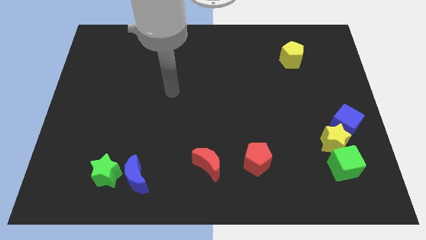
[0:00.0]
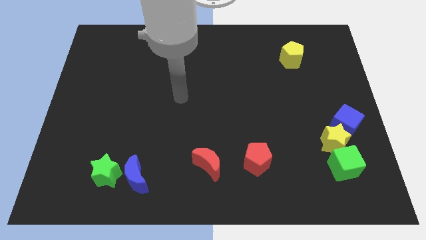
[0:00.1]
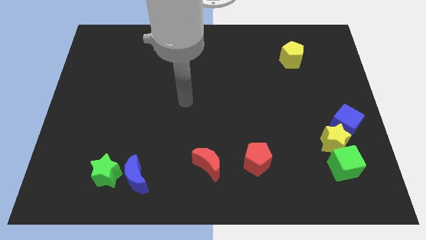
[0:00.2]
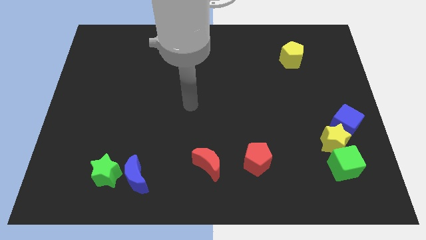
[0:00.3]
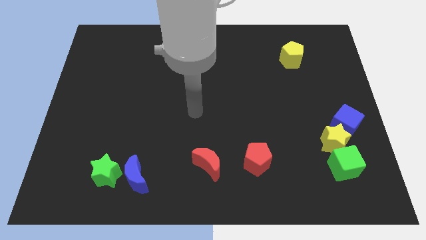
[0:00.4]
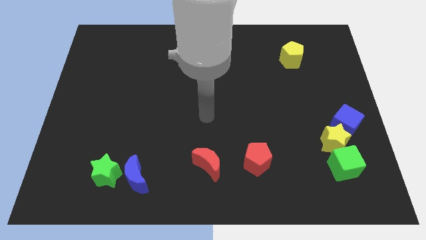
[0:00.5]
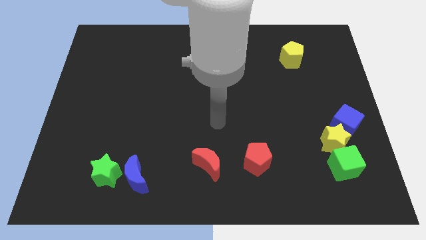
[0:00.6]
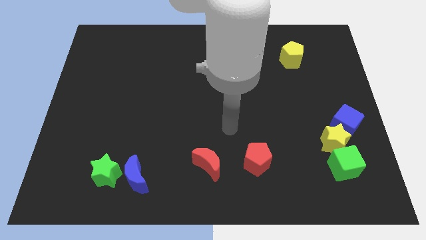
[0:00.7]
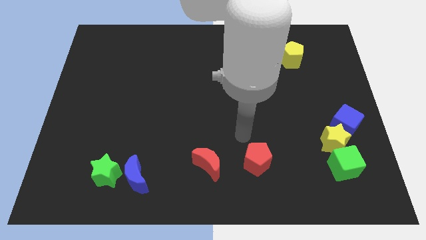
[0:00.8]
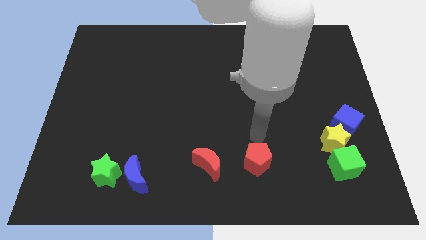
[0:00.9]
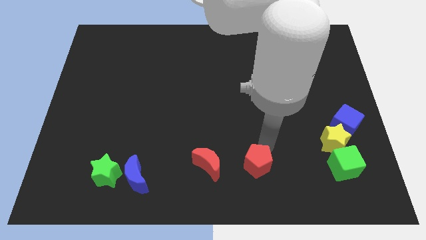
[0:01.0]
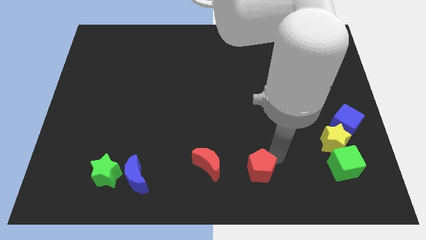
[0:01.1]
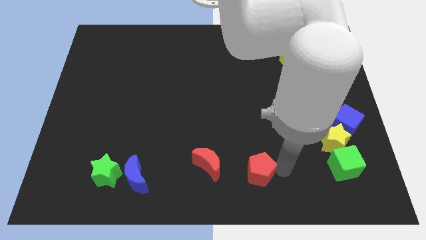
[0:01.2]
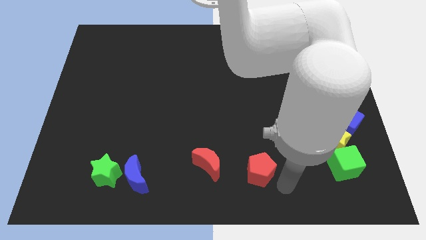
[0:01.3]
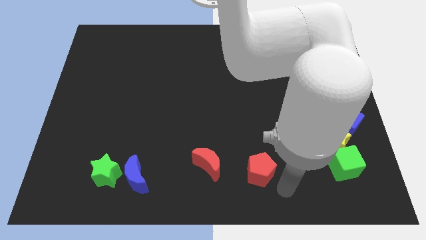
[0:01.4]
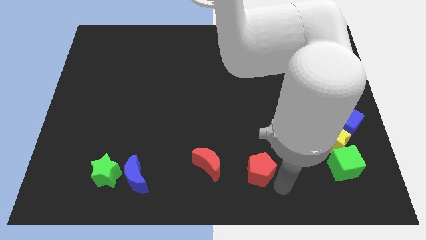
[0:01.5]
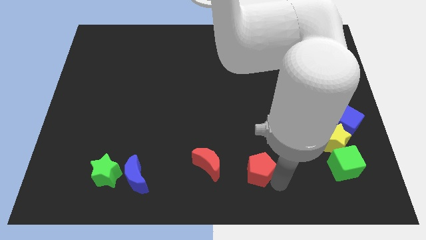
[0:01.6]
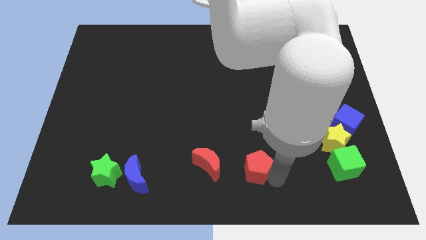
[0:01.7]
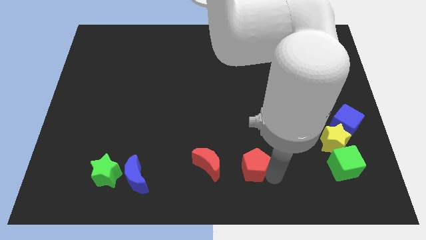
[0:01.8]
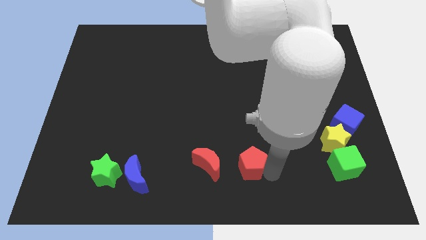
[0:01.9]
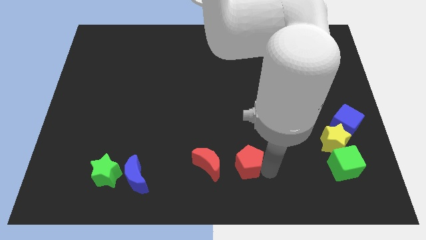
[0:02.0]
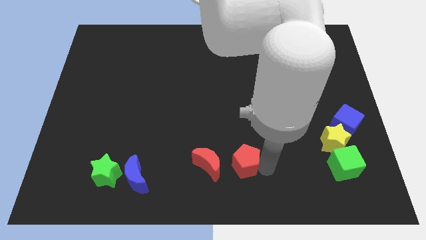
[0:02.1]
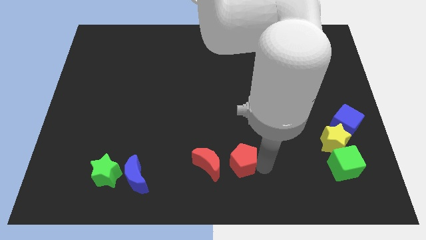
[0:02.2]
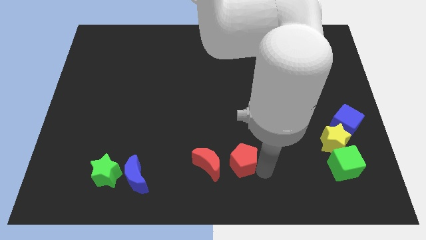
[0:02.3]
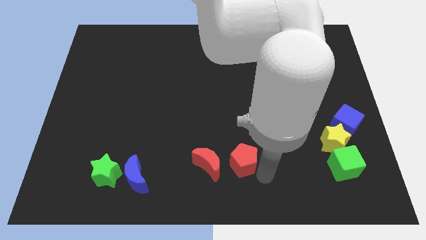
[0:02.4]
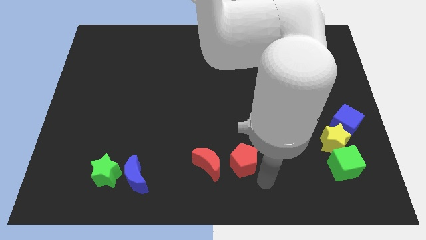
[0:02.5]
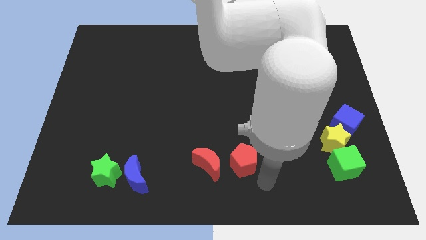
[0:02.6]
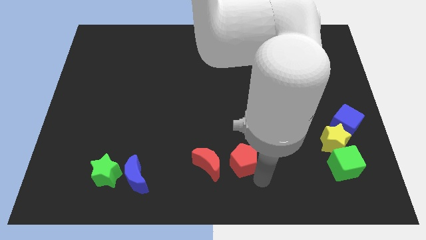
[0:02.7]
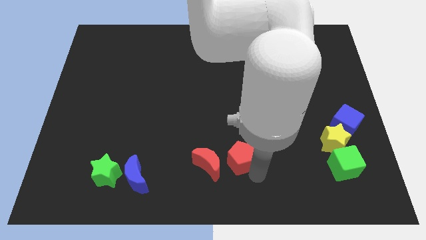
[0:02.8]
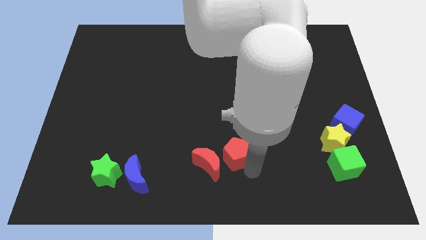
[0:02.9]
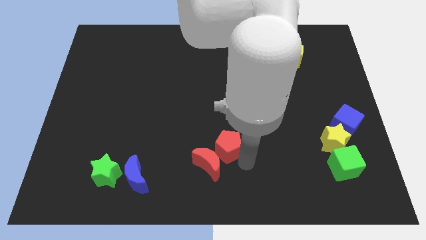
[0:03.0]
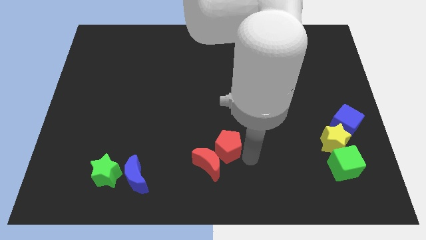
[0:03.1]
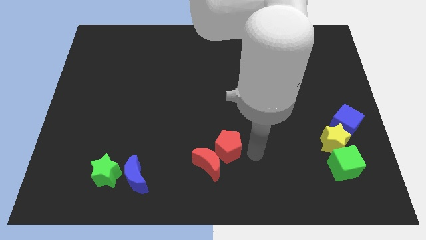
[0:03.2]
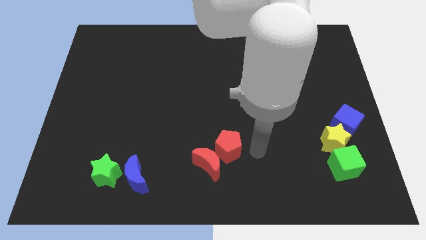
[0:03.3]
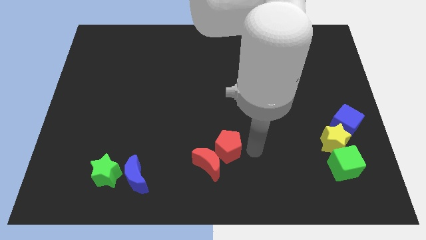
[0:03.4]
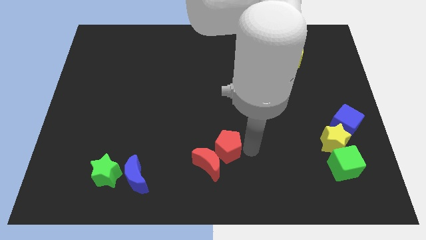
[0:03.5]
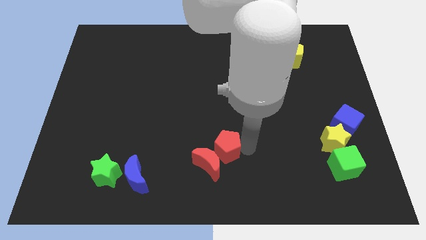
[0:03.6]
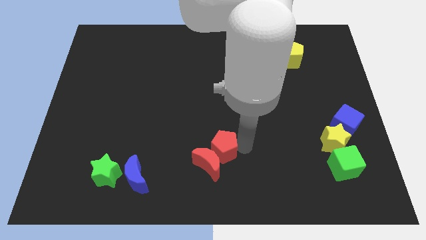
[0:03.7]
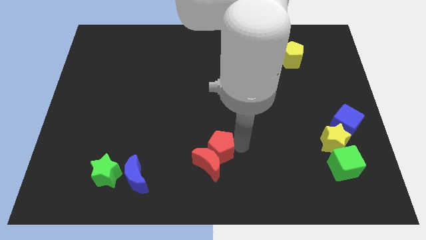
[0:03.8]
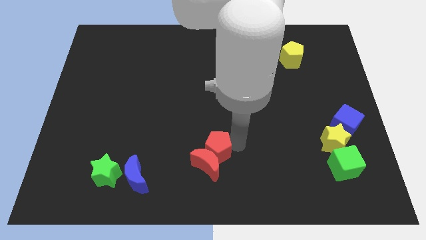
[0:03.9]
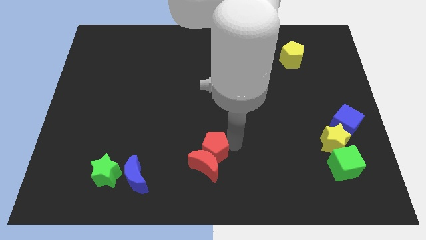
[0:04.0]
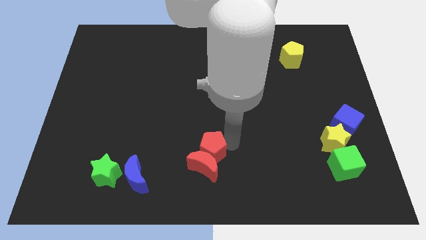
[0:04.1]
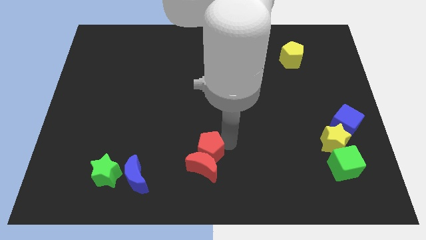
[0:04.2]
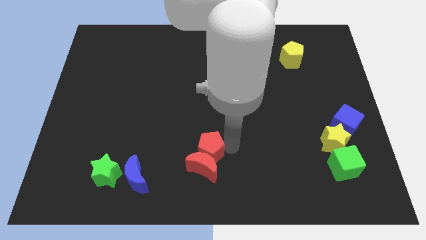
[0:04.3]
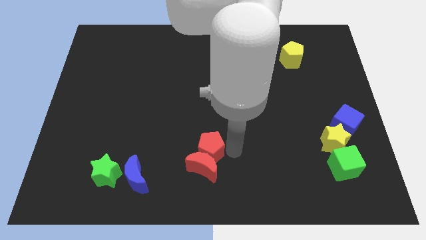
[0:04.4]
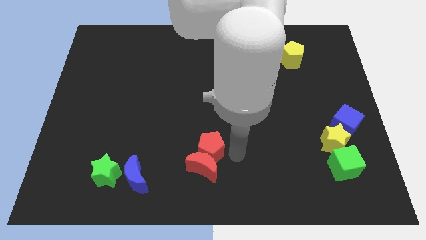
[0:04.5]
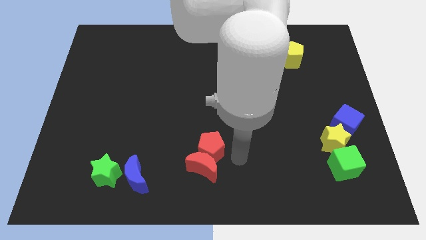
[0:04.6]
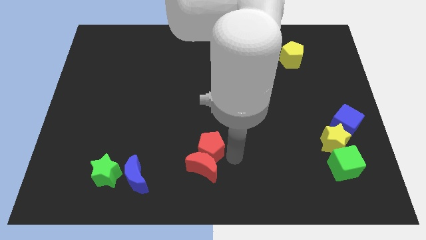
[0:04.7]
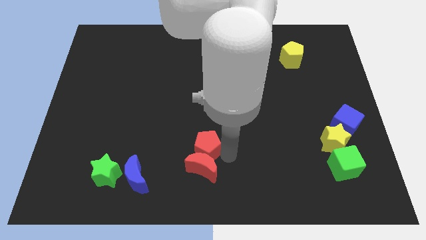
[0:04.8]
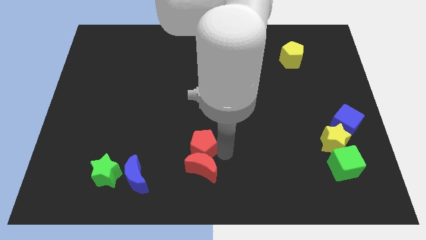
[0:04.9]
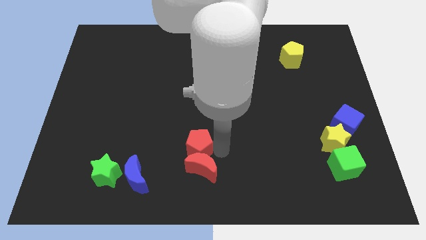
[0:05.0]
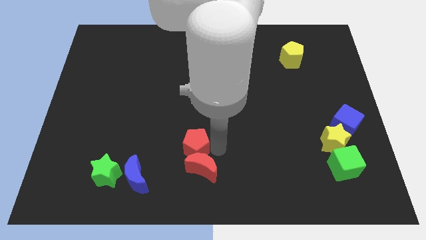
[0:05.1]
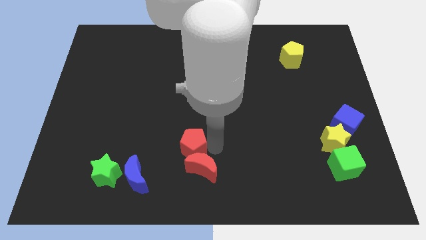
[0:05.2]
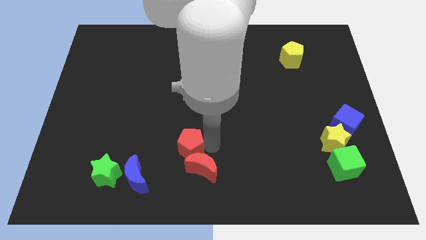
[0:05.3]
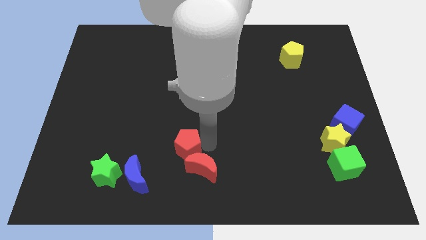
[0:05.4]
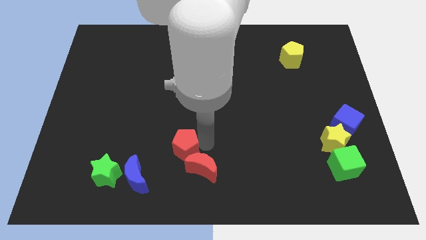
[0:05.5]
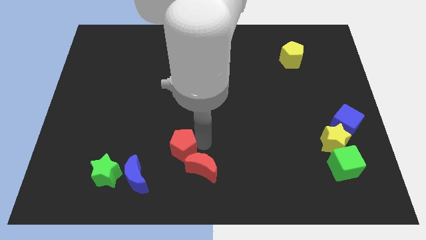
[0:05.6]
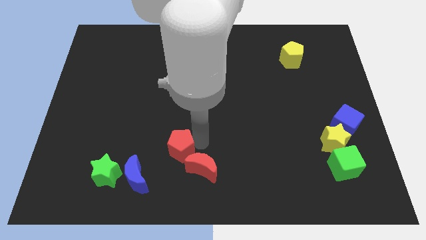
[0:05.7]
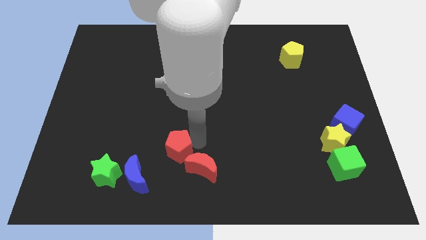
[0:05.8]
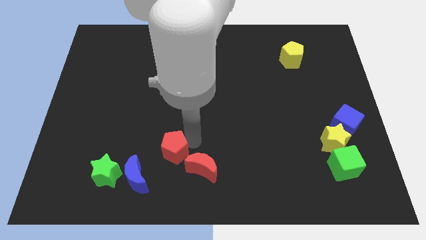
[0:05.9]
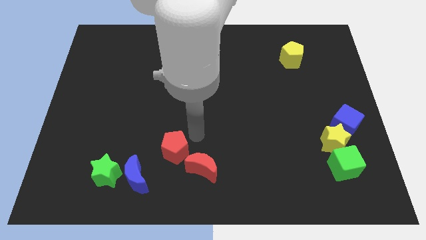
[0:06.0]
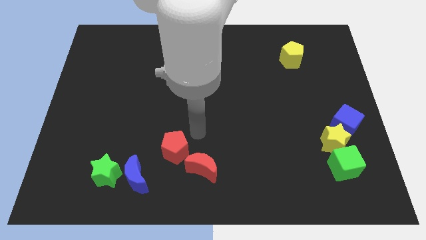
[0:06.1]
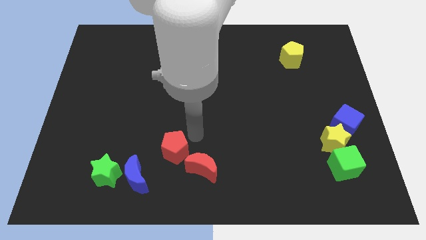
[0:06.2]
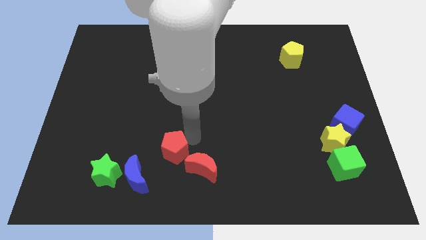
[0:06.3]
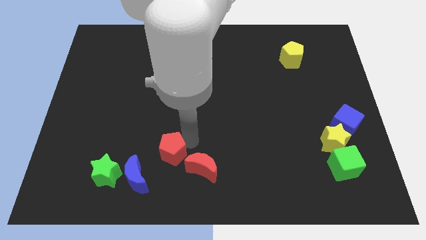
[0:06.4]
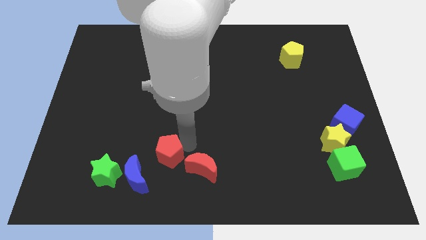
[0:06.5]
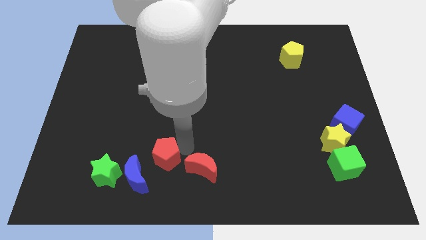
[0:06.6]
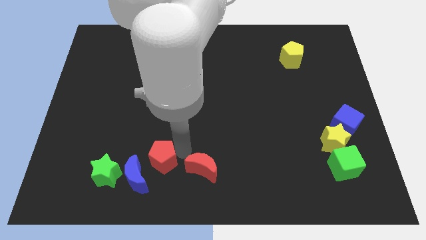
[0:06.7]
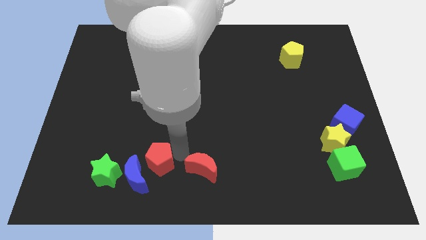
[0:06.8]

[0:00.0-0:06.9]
put the red pentagon close to the blue moon
